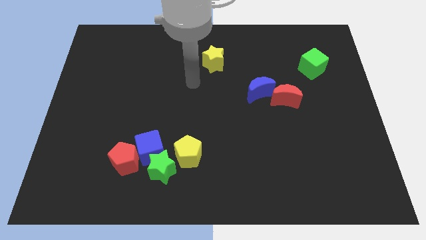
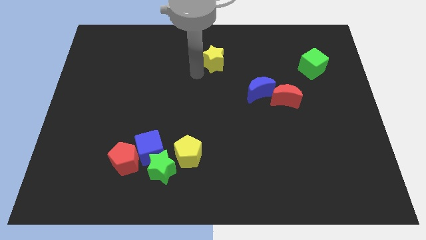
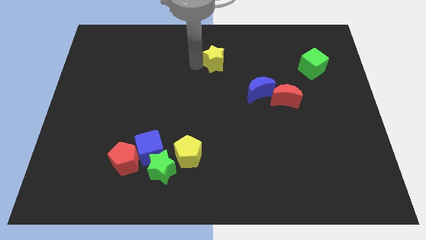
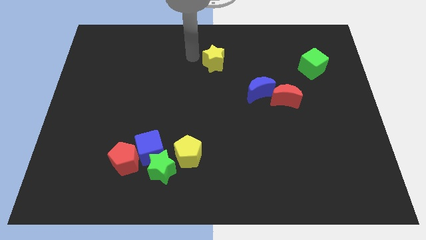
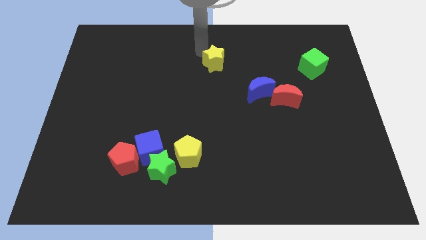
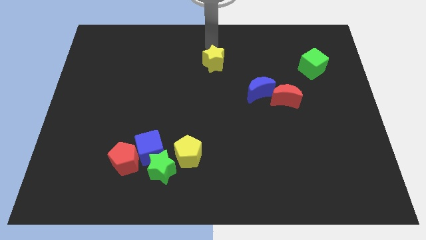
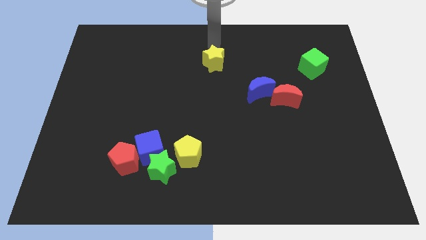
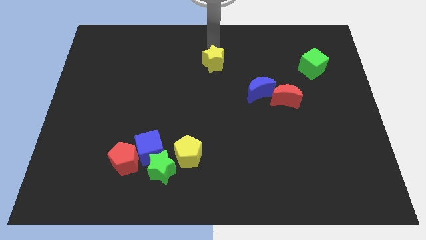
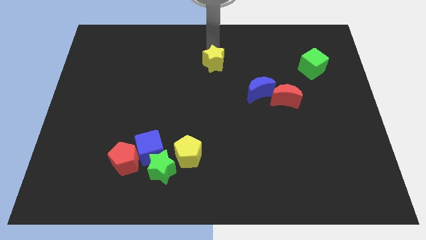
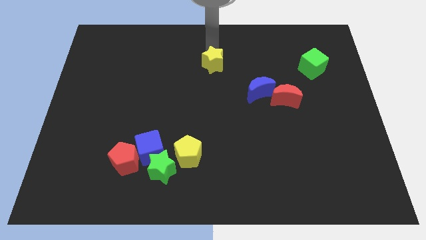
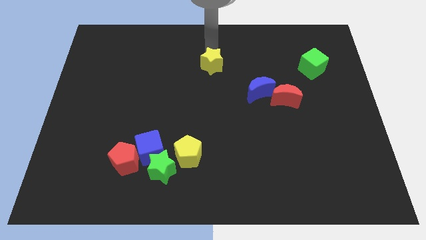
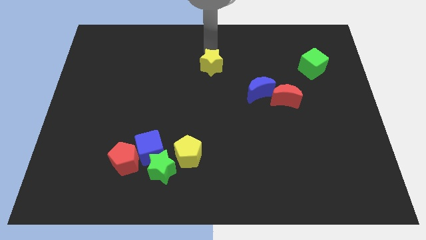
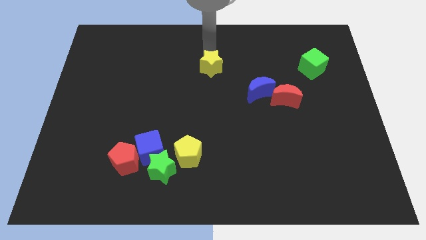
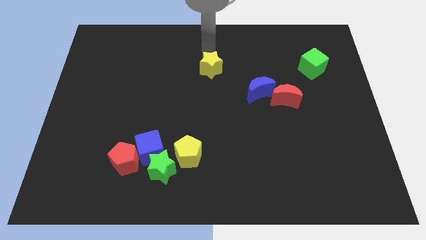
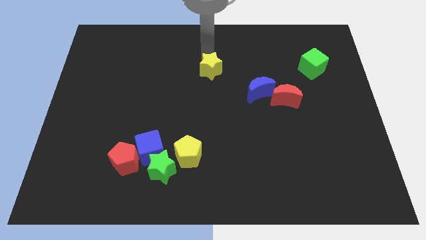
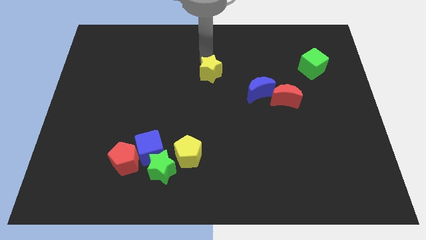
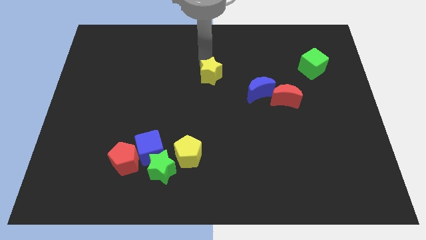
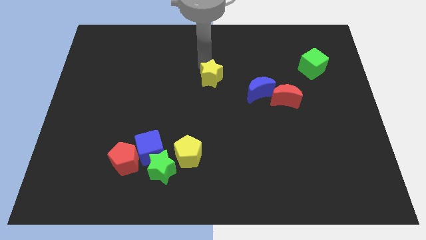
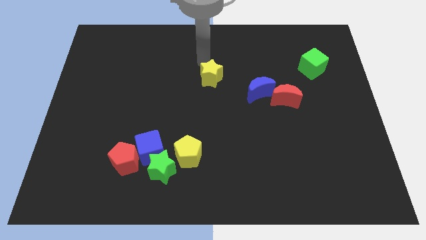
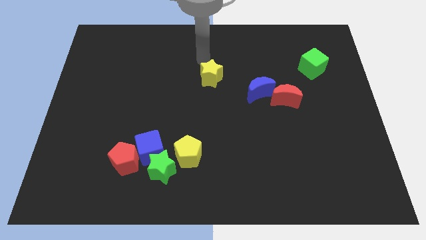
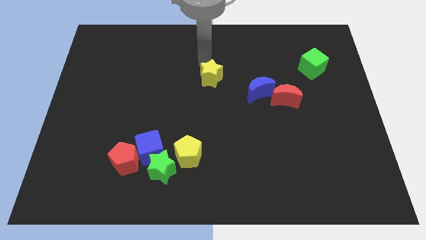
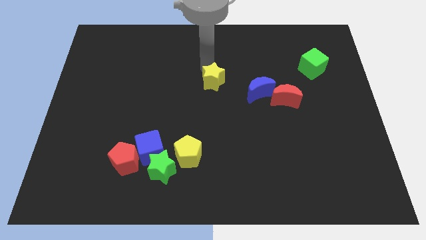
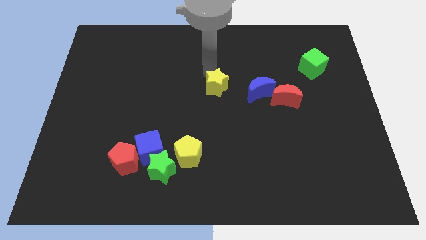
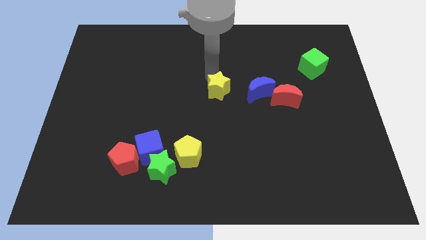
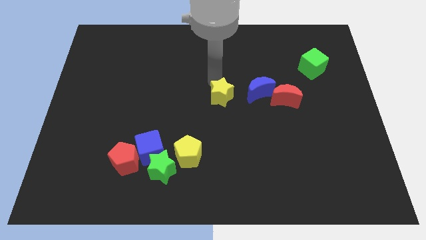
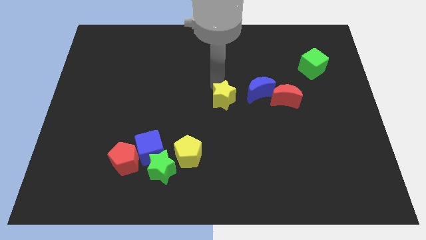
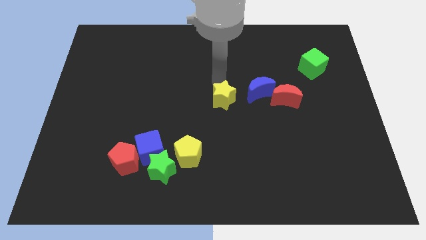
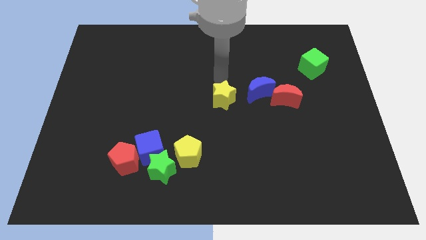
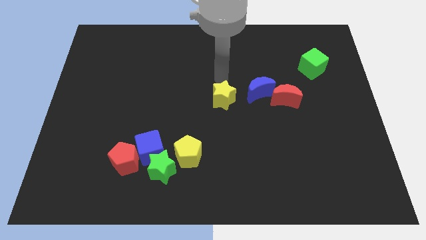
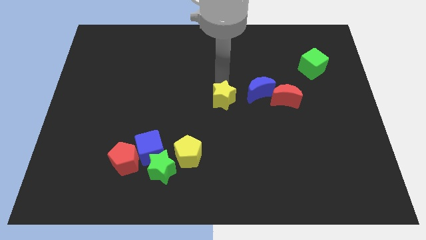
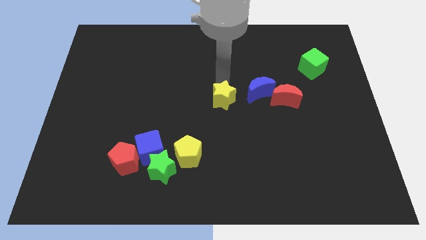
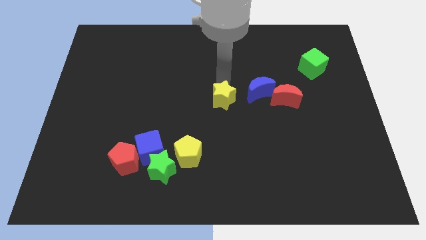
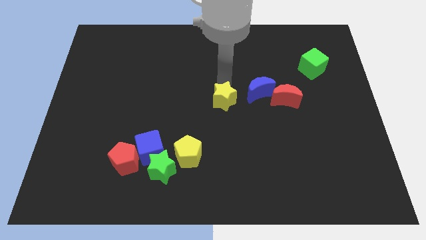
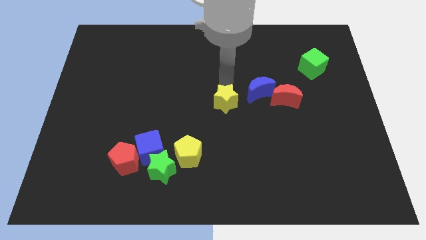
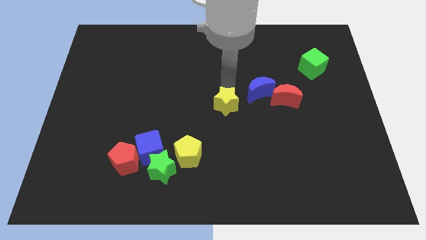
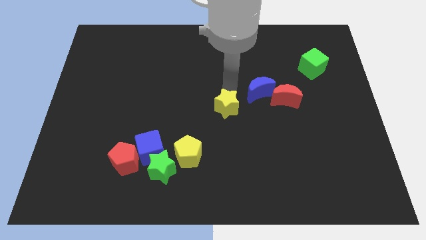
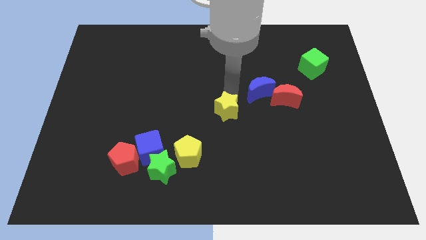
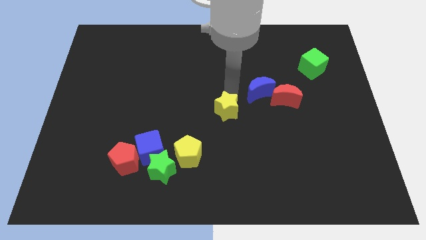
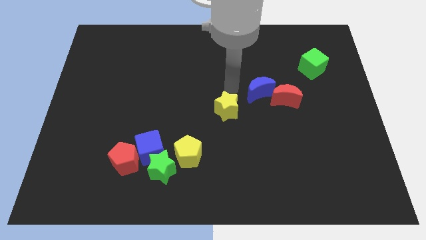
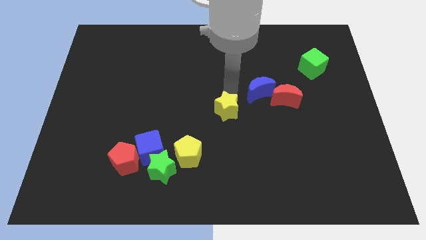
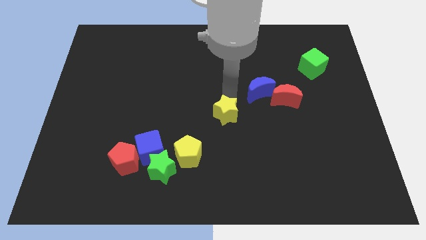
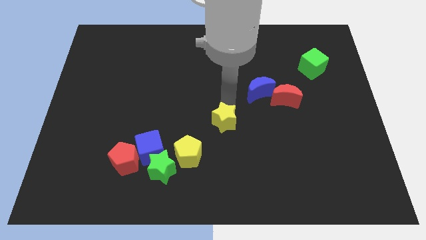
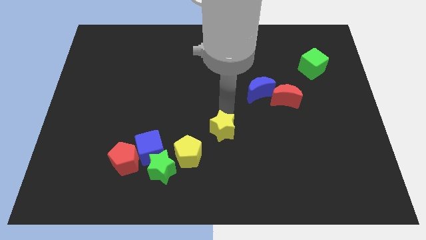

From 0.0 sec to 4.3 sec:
slide the yellow star down

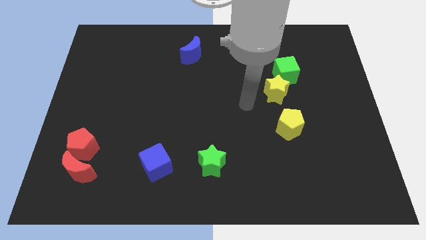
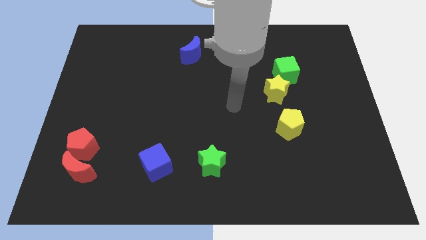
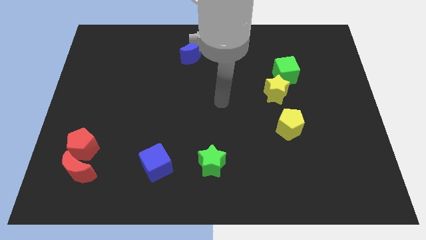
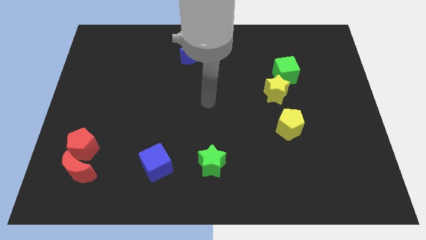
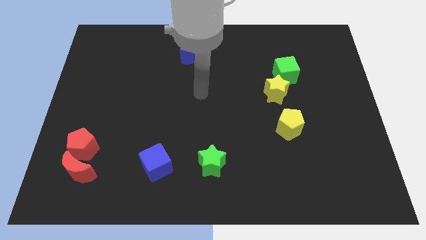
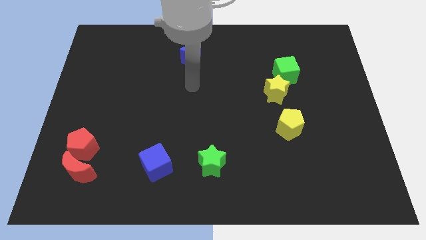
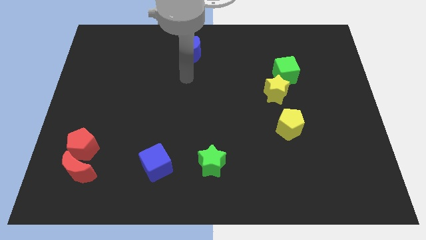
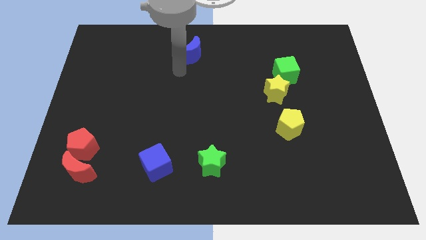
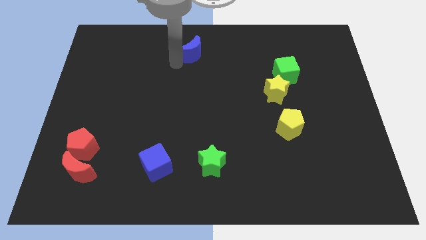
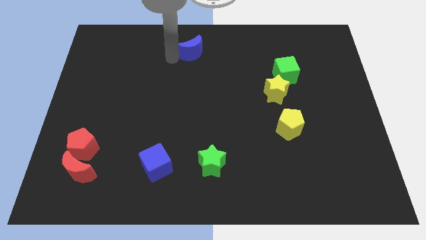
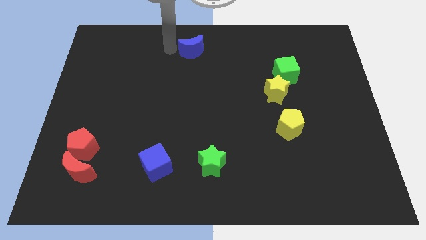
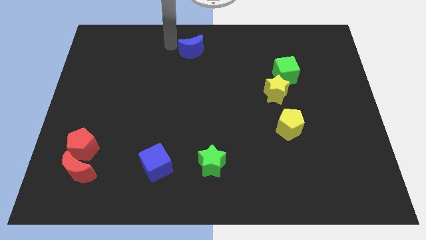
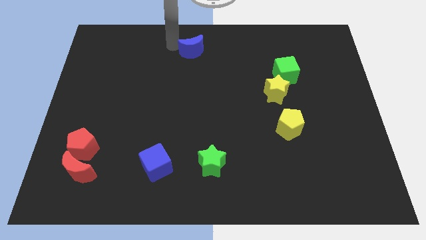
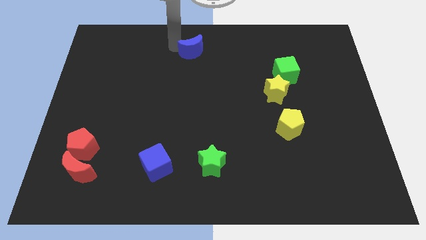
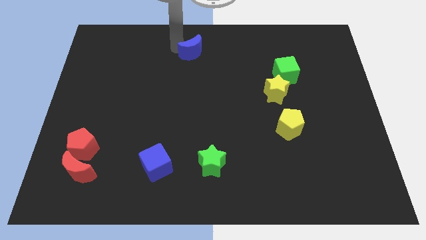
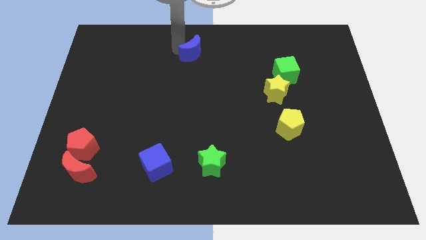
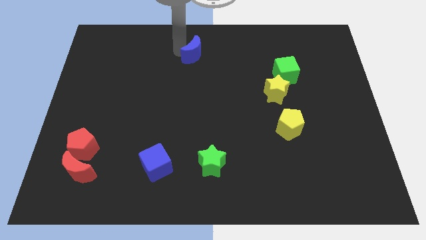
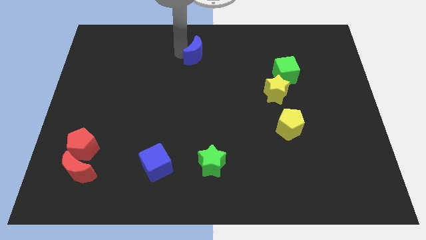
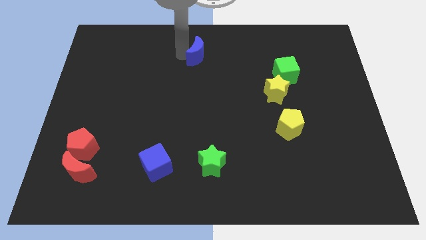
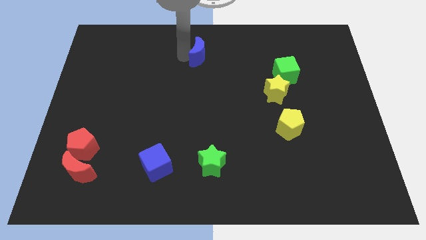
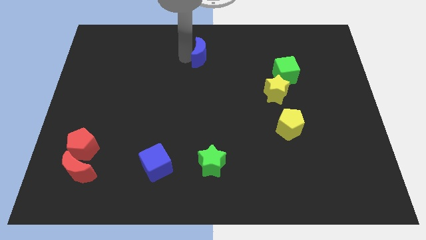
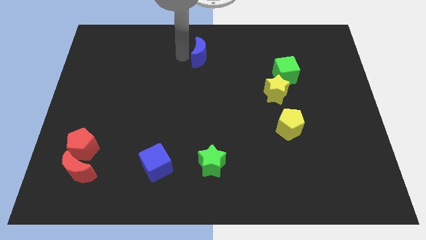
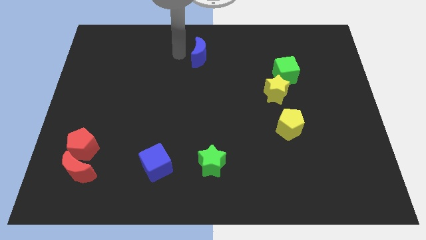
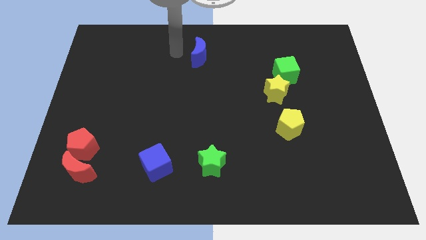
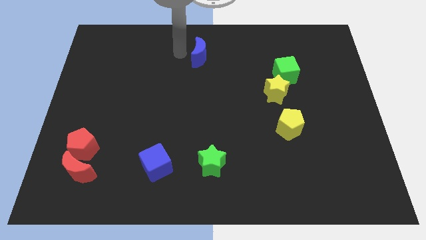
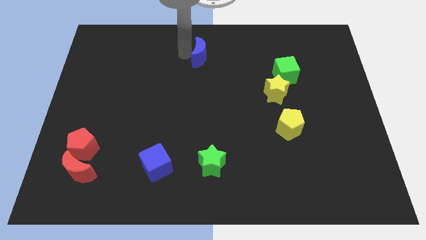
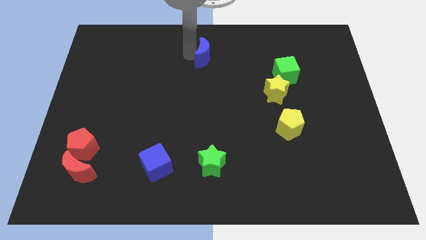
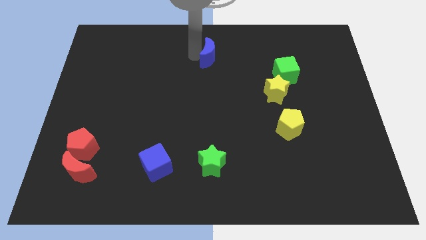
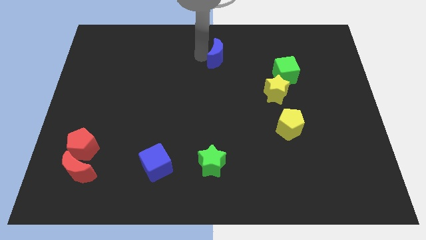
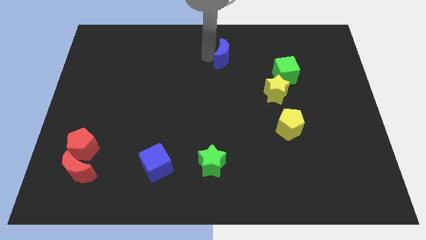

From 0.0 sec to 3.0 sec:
slightly move the blue moon to the right
